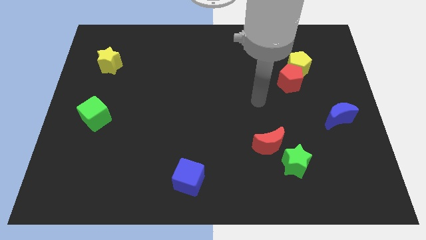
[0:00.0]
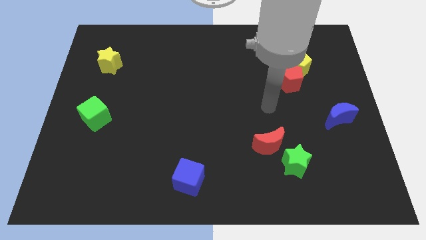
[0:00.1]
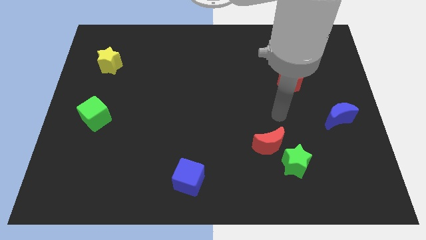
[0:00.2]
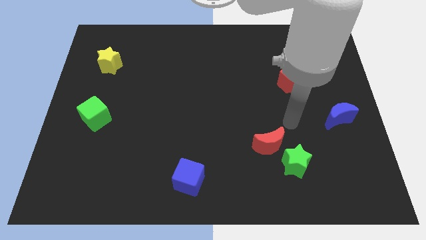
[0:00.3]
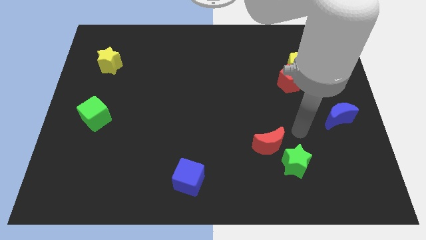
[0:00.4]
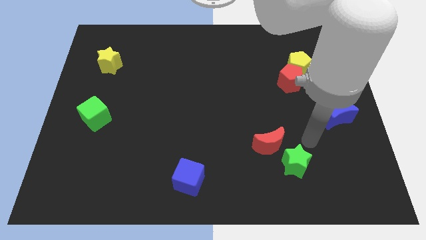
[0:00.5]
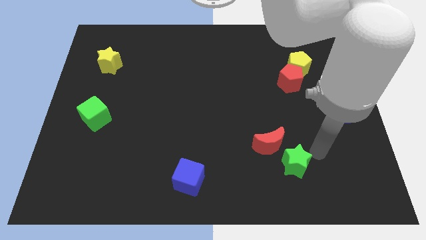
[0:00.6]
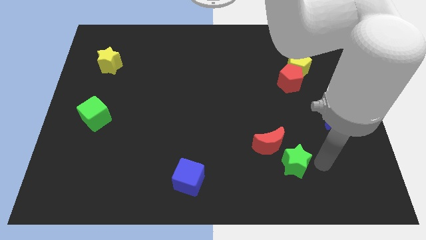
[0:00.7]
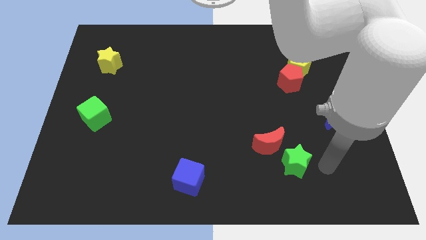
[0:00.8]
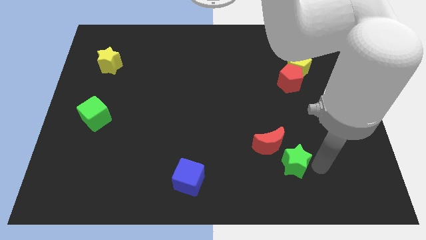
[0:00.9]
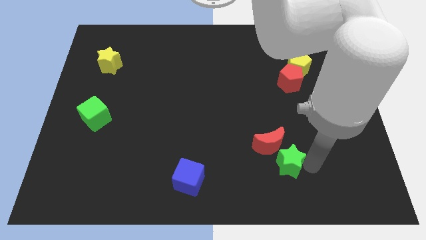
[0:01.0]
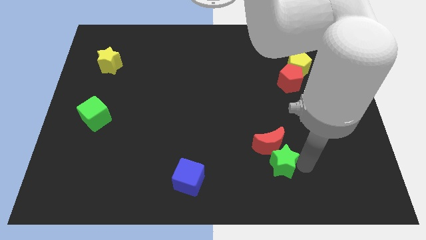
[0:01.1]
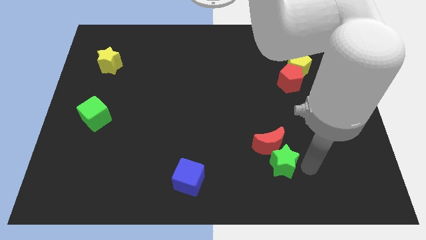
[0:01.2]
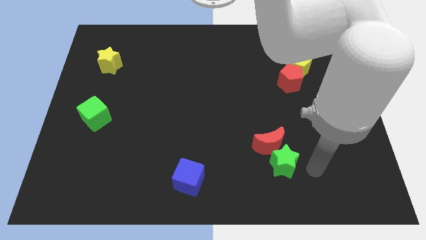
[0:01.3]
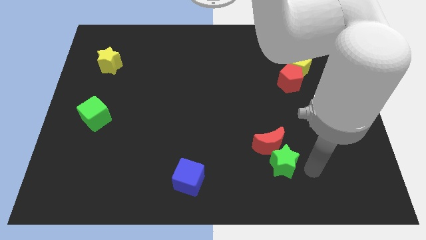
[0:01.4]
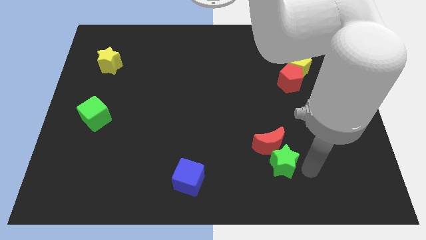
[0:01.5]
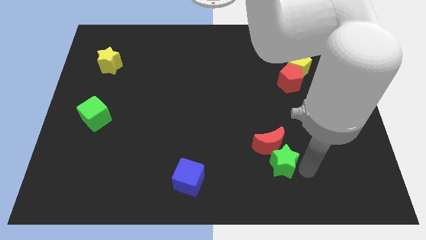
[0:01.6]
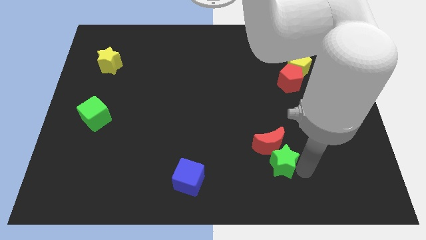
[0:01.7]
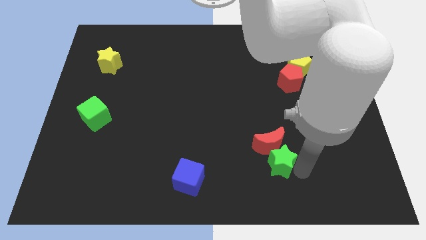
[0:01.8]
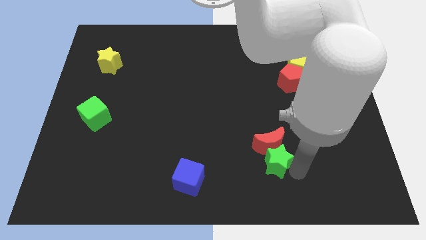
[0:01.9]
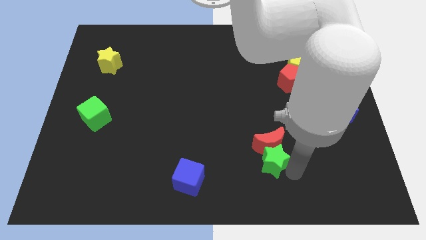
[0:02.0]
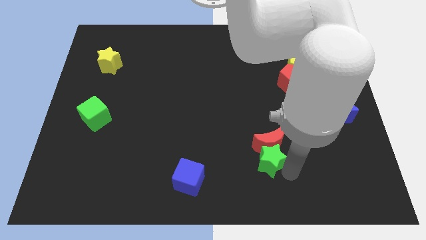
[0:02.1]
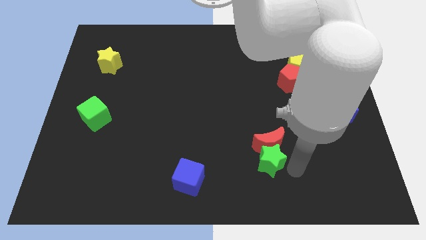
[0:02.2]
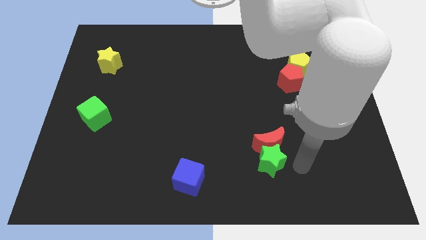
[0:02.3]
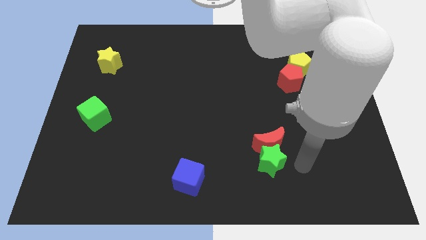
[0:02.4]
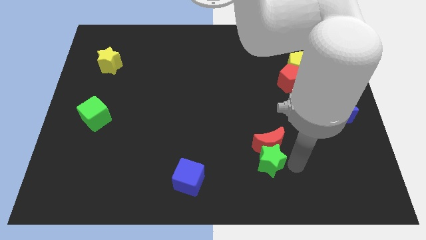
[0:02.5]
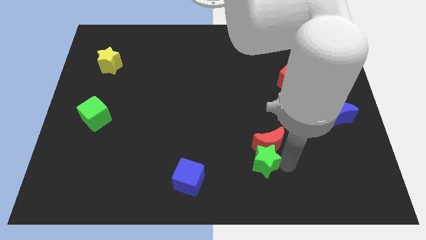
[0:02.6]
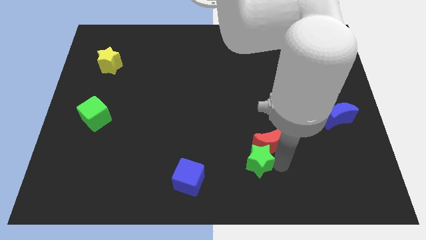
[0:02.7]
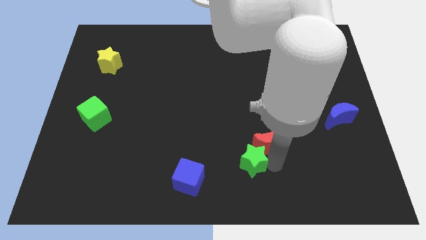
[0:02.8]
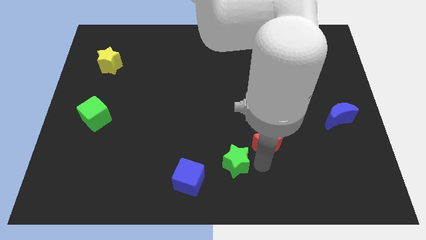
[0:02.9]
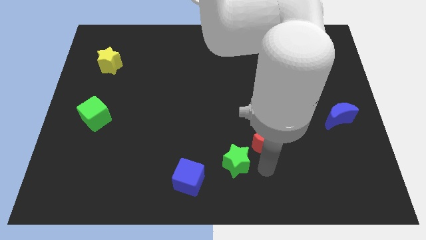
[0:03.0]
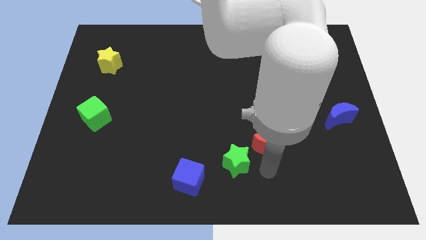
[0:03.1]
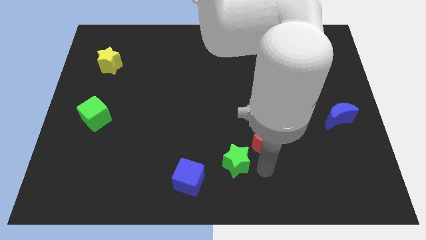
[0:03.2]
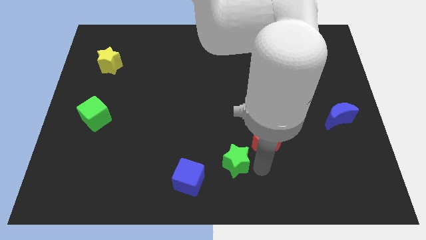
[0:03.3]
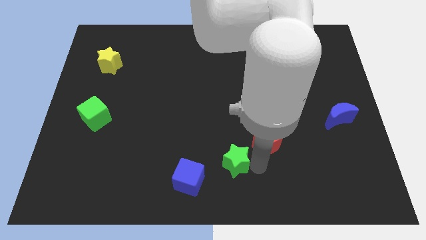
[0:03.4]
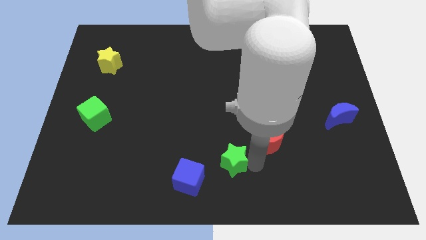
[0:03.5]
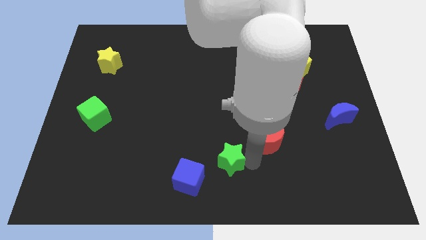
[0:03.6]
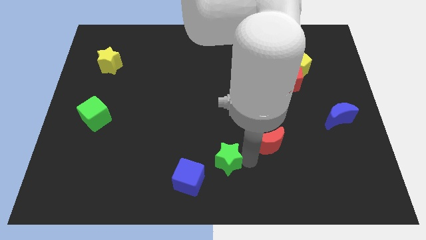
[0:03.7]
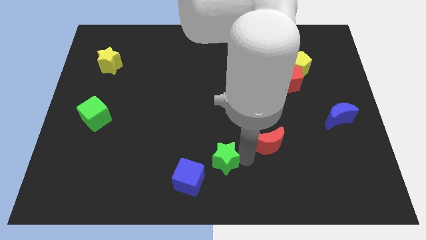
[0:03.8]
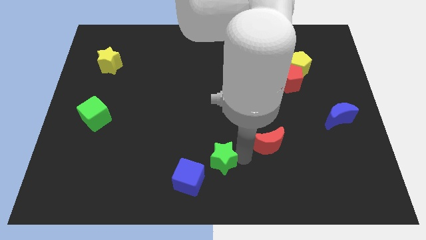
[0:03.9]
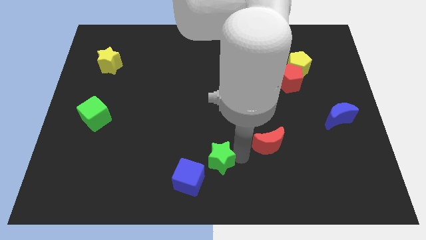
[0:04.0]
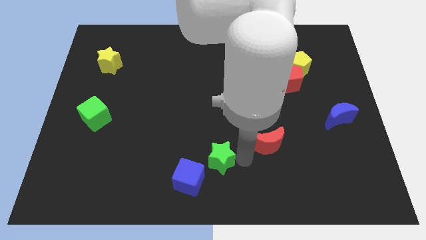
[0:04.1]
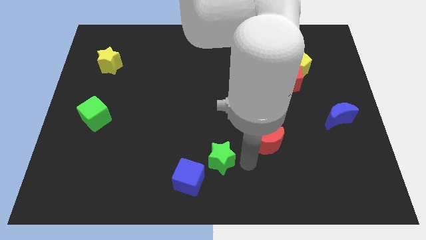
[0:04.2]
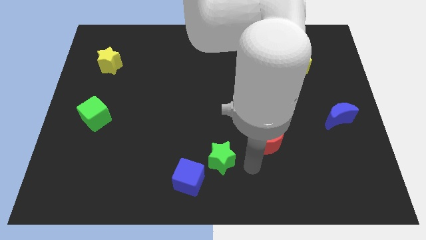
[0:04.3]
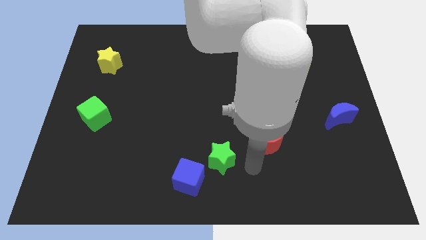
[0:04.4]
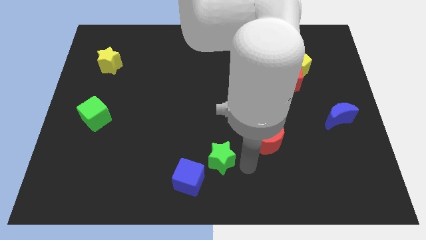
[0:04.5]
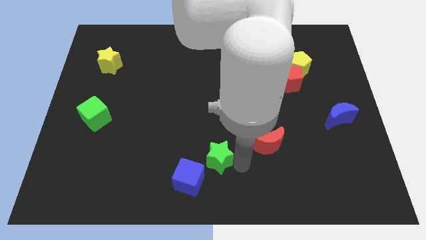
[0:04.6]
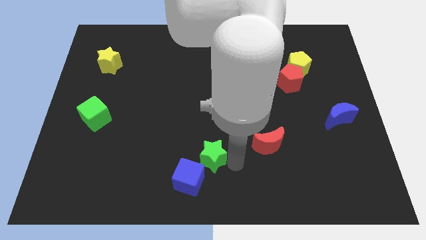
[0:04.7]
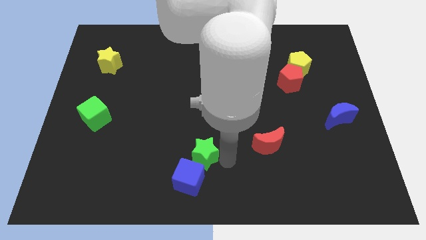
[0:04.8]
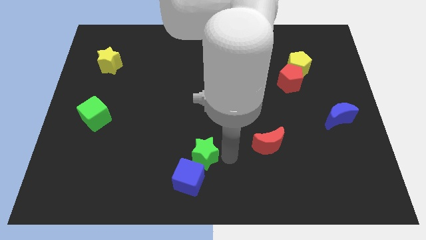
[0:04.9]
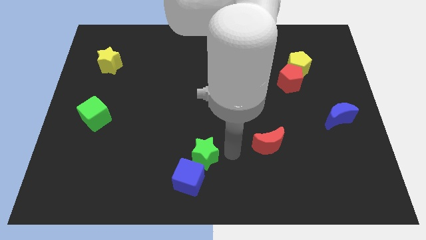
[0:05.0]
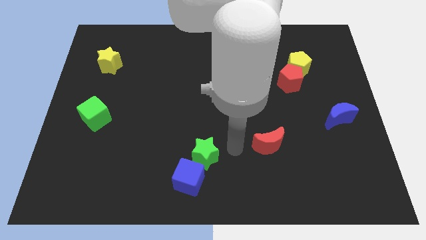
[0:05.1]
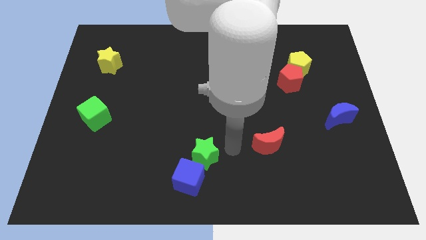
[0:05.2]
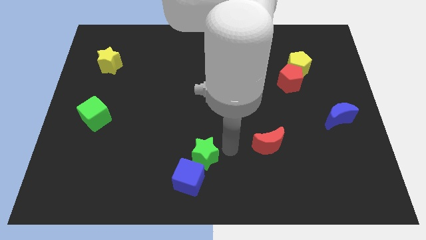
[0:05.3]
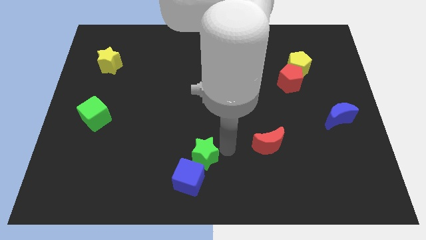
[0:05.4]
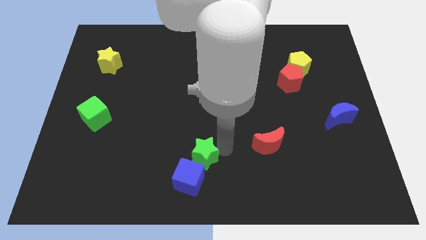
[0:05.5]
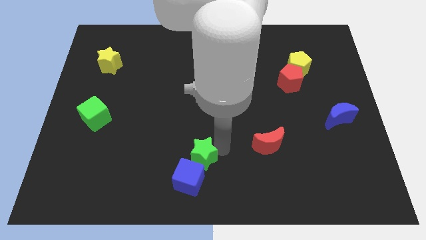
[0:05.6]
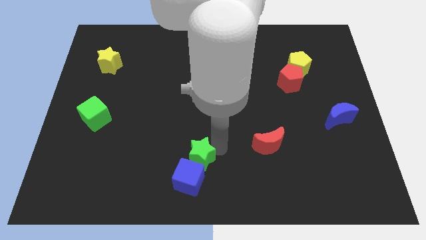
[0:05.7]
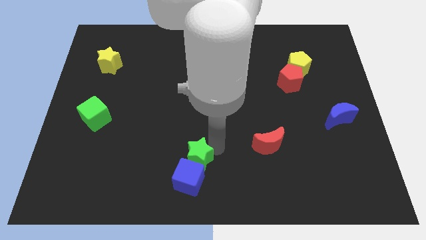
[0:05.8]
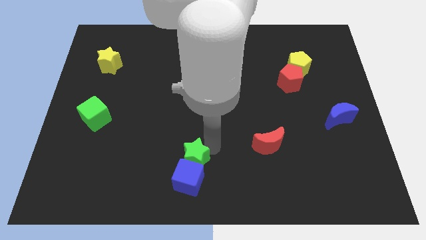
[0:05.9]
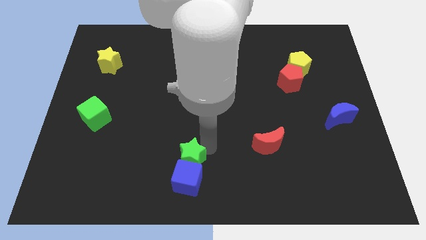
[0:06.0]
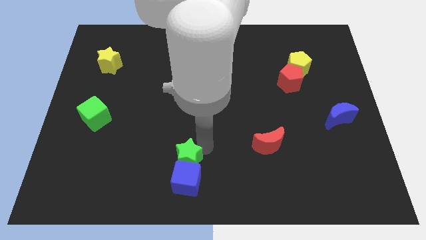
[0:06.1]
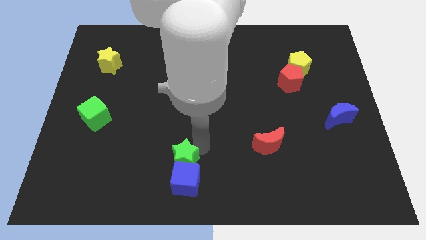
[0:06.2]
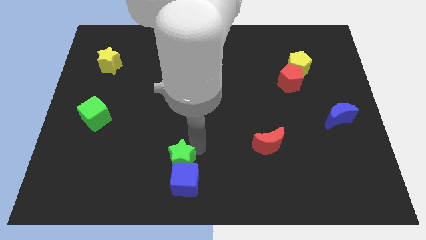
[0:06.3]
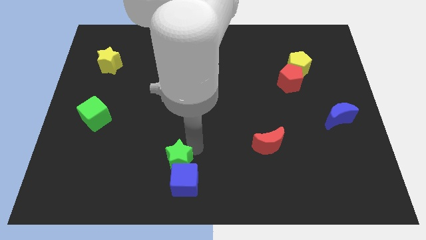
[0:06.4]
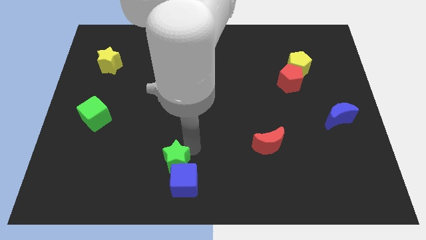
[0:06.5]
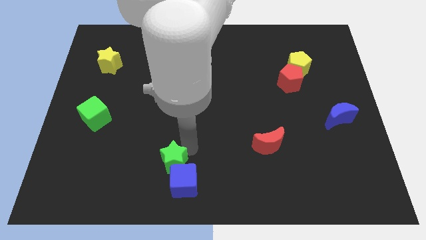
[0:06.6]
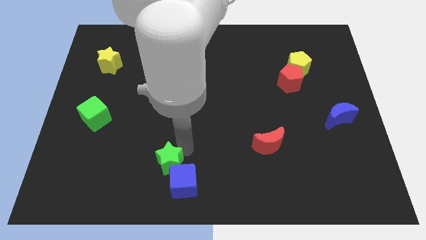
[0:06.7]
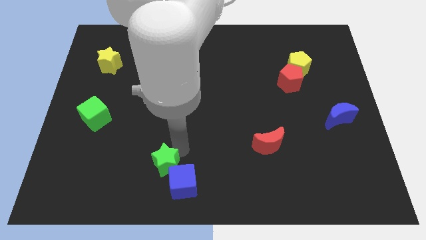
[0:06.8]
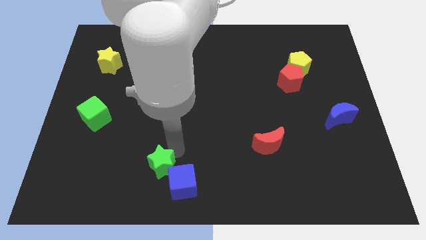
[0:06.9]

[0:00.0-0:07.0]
slide the green star to the left side of the blue cube

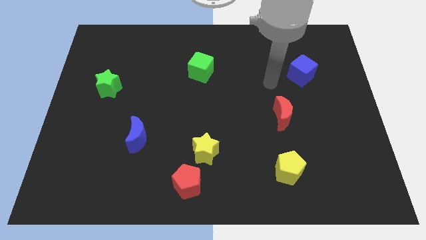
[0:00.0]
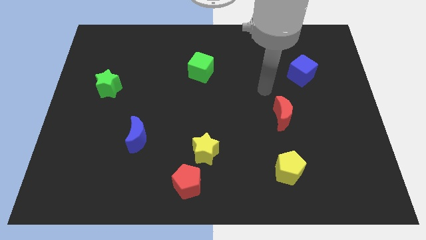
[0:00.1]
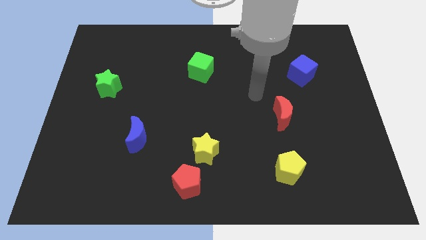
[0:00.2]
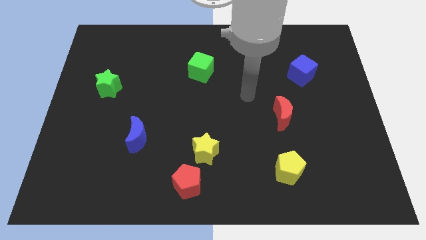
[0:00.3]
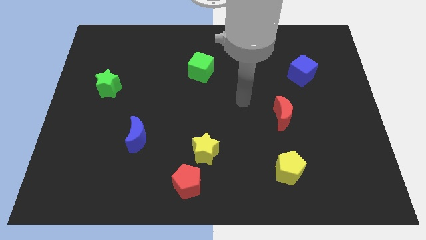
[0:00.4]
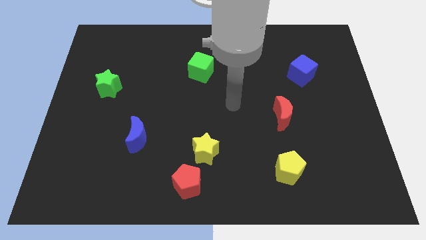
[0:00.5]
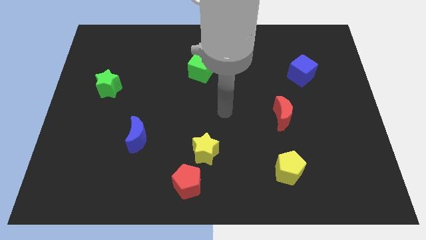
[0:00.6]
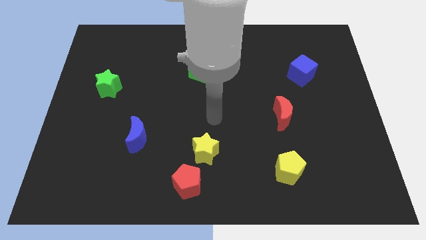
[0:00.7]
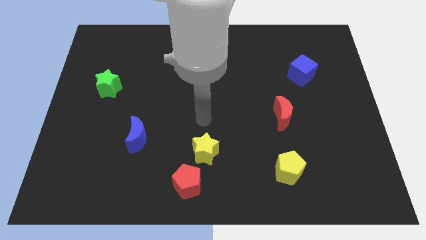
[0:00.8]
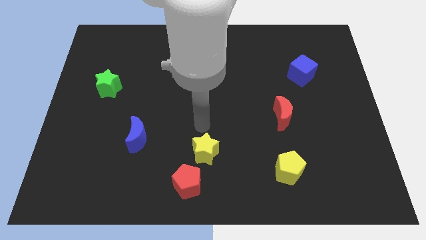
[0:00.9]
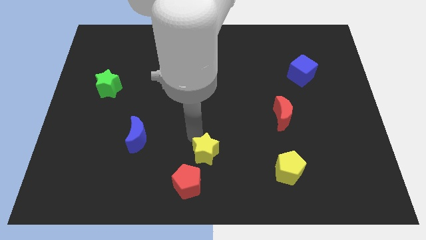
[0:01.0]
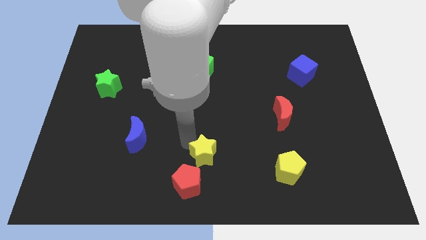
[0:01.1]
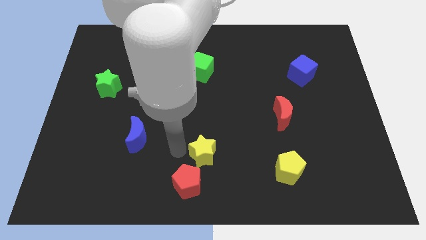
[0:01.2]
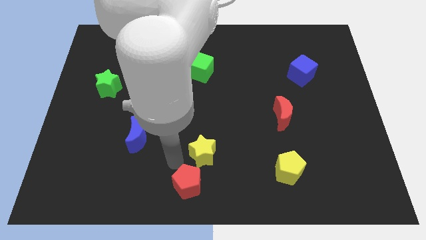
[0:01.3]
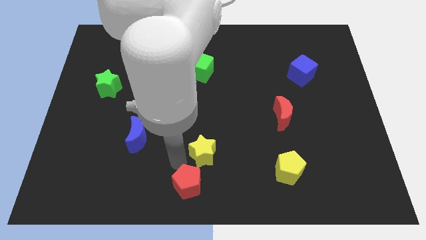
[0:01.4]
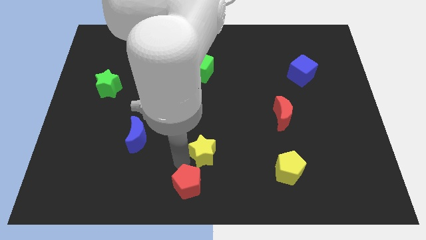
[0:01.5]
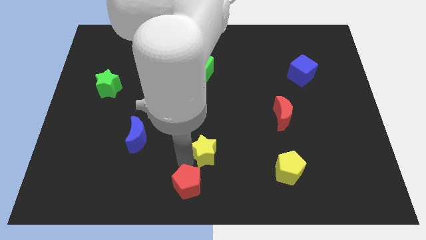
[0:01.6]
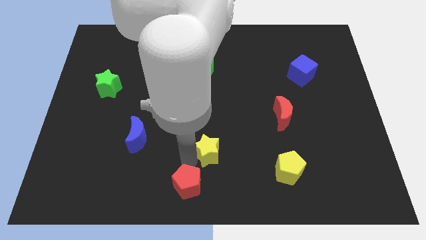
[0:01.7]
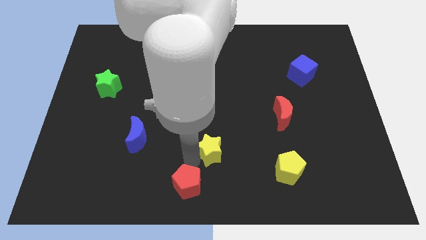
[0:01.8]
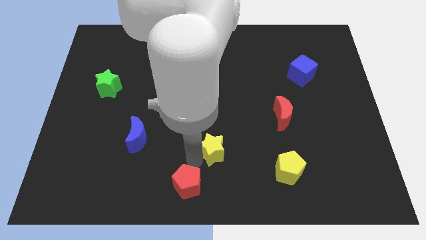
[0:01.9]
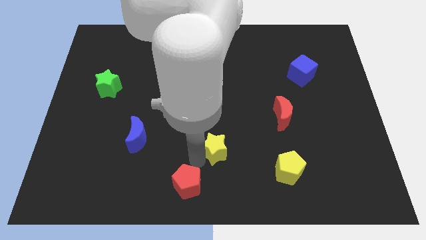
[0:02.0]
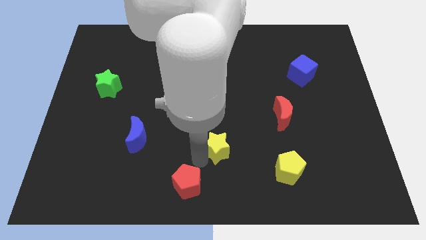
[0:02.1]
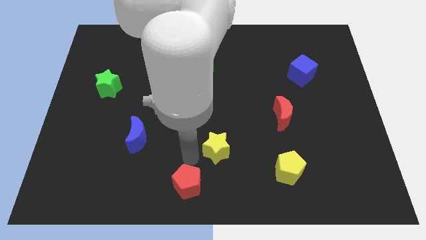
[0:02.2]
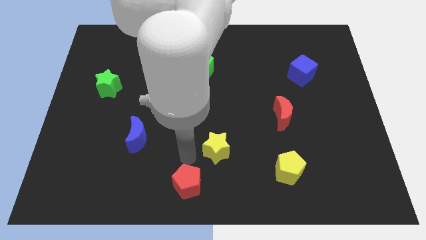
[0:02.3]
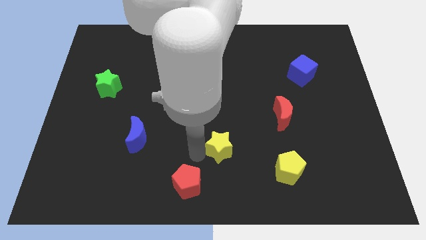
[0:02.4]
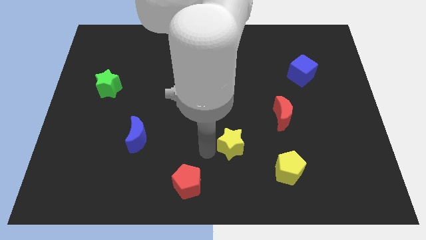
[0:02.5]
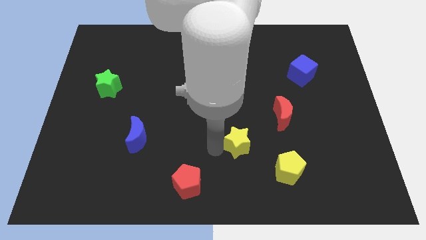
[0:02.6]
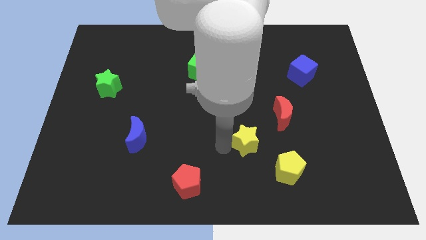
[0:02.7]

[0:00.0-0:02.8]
move the yellow star to the bottom left side of the red moon
